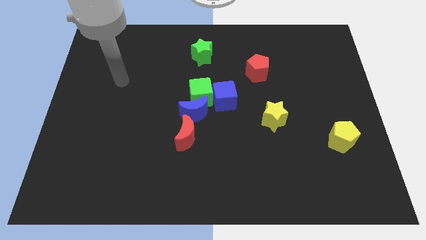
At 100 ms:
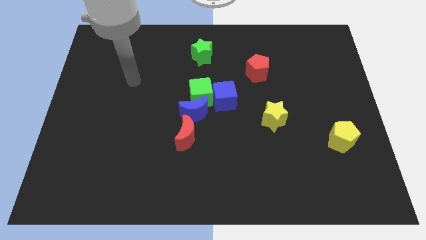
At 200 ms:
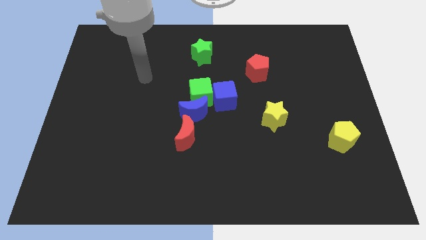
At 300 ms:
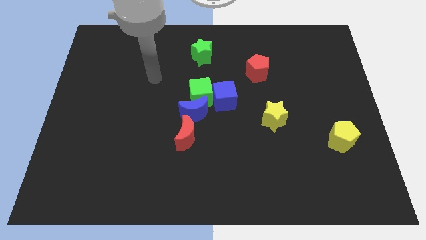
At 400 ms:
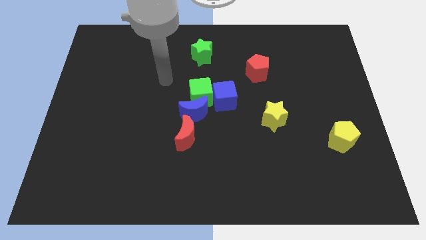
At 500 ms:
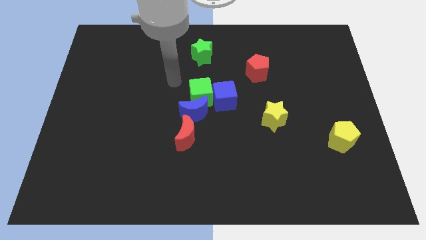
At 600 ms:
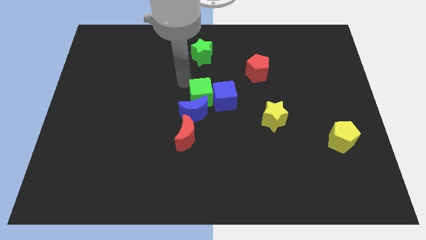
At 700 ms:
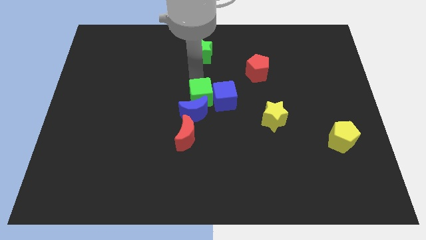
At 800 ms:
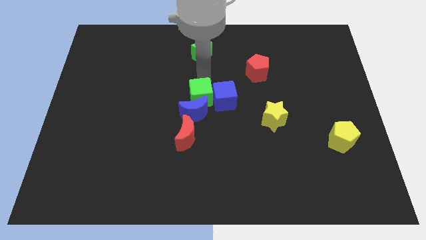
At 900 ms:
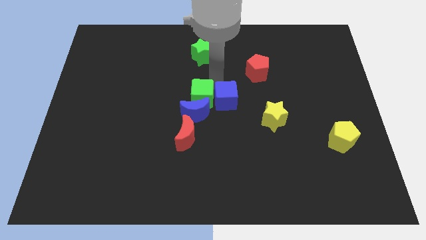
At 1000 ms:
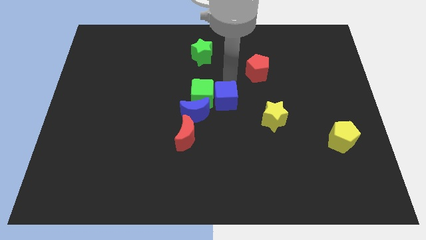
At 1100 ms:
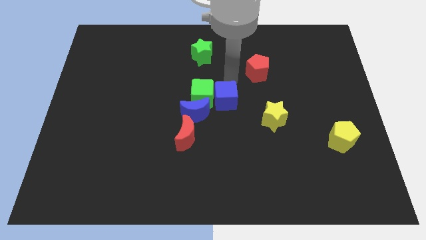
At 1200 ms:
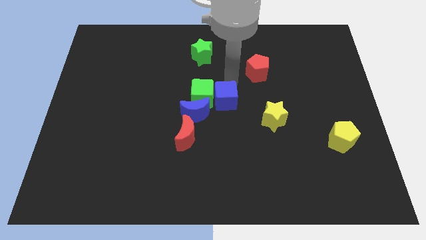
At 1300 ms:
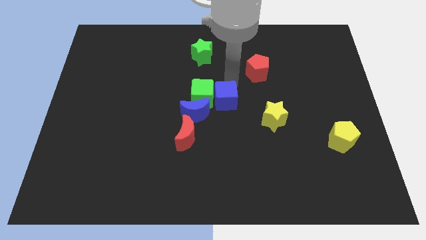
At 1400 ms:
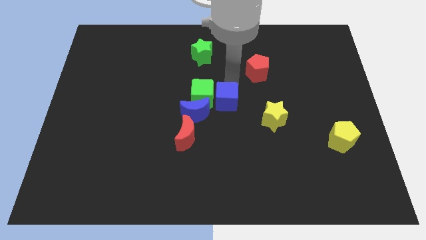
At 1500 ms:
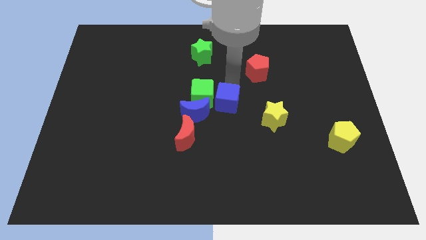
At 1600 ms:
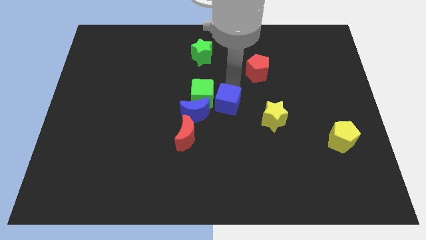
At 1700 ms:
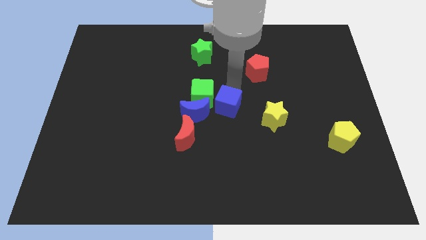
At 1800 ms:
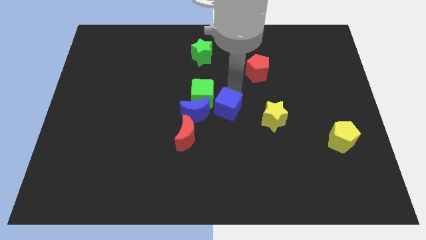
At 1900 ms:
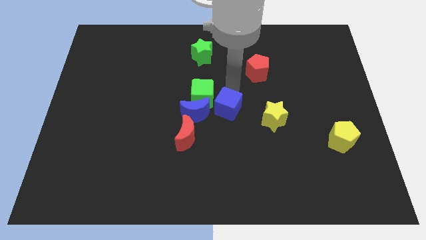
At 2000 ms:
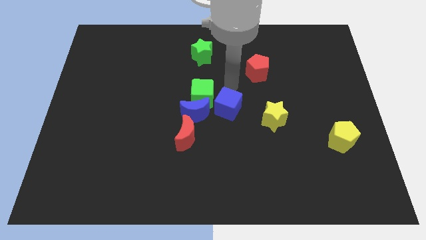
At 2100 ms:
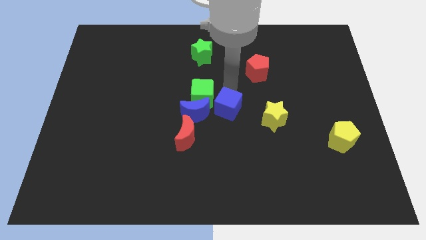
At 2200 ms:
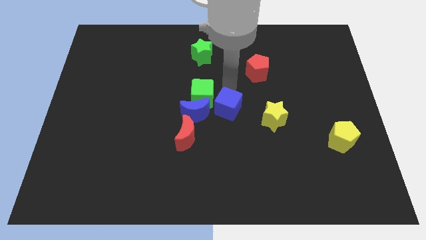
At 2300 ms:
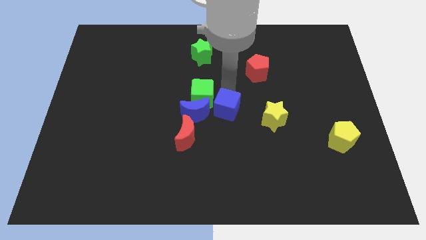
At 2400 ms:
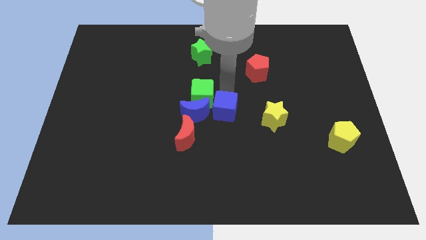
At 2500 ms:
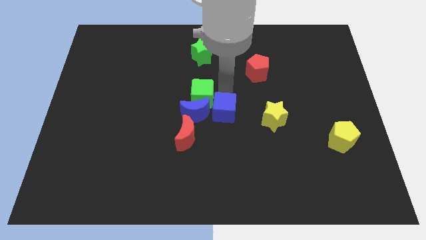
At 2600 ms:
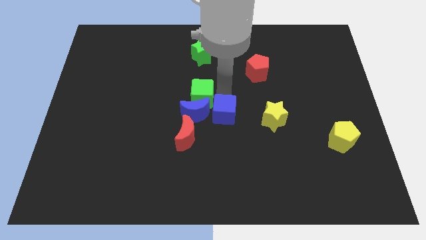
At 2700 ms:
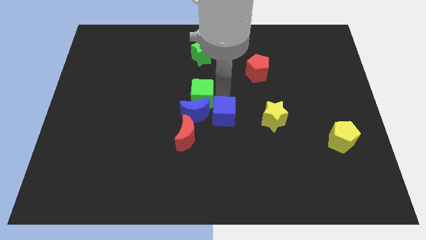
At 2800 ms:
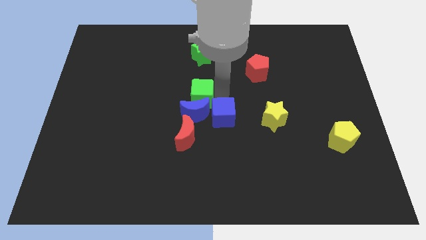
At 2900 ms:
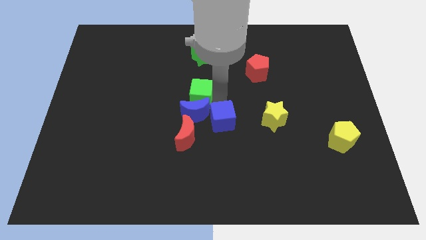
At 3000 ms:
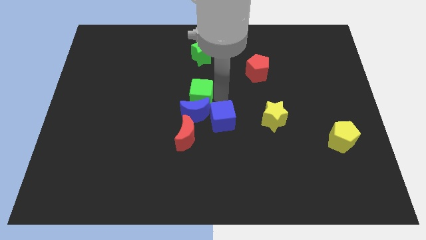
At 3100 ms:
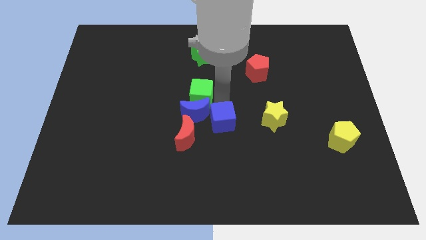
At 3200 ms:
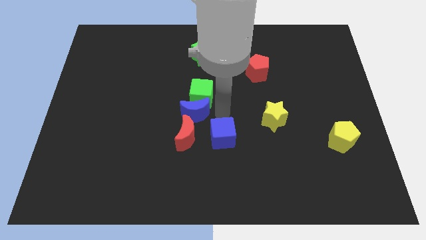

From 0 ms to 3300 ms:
slide the blue cube somewhat down

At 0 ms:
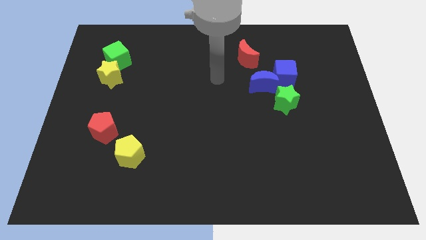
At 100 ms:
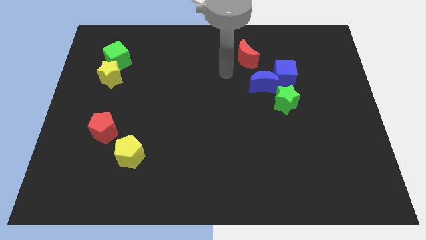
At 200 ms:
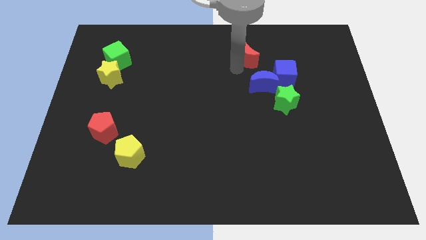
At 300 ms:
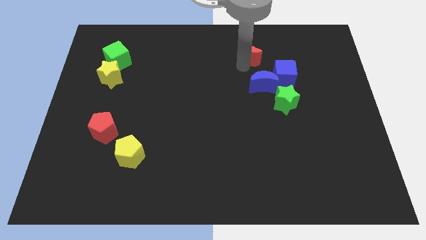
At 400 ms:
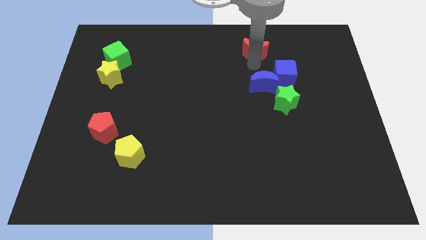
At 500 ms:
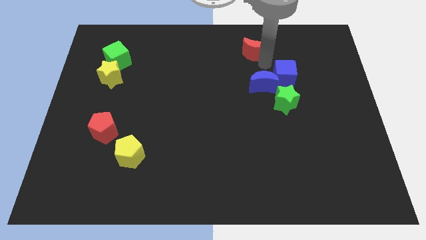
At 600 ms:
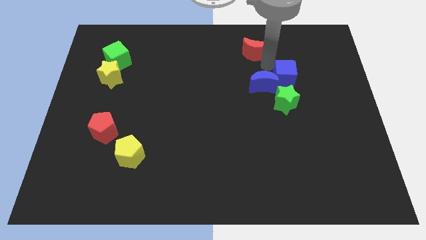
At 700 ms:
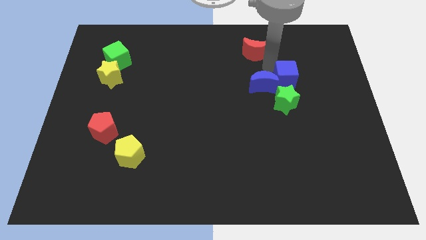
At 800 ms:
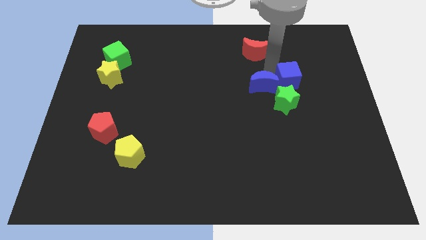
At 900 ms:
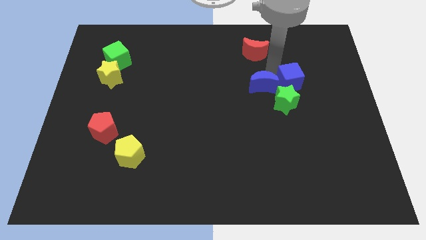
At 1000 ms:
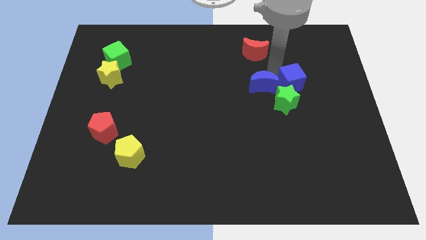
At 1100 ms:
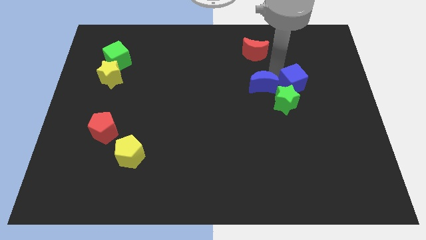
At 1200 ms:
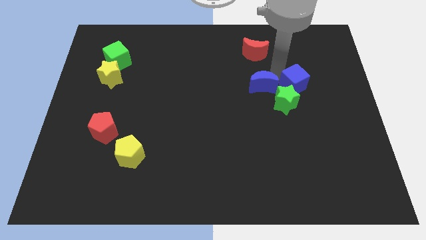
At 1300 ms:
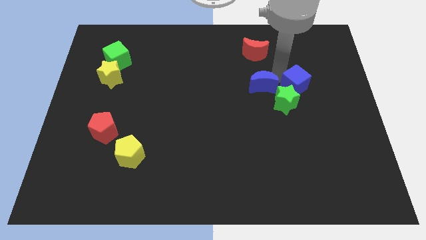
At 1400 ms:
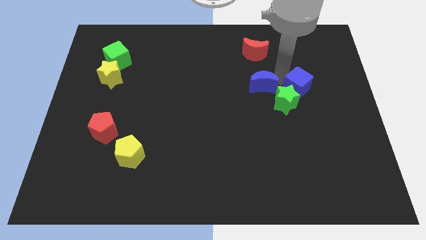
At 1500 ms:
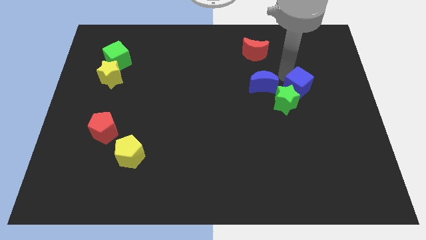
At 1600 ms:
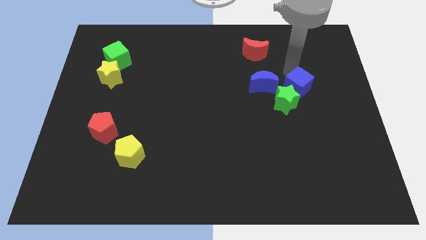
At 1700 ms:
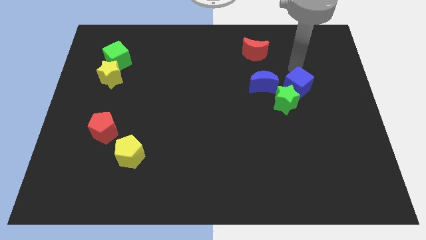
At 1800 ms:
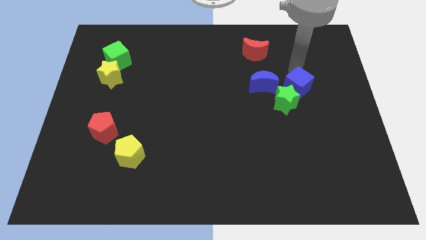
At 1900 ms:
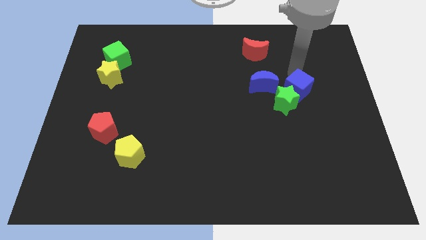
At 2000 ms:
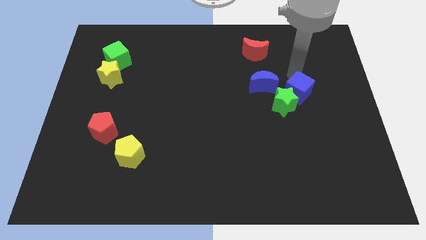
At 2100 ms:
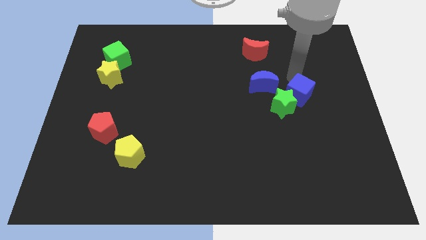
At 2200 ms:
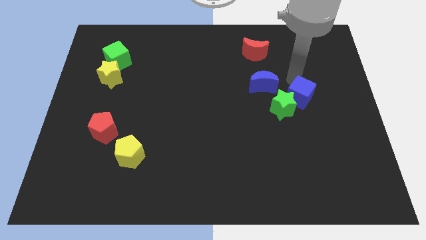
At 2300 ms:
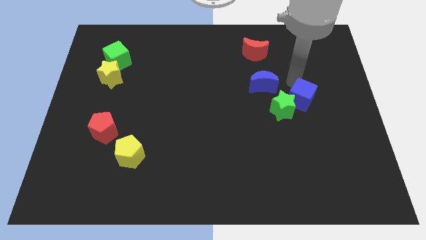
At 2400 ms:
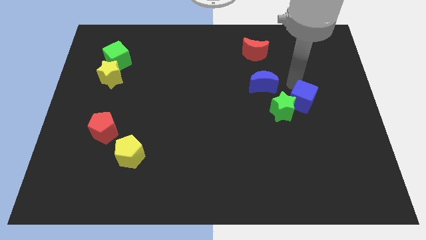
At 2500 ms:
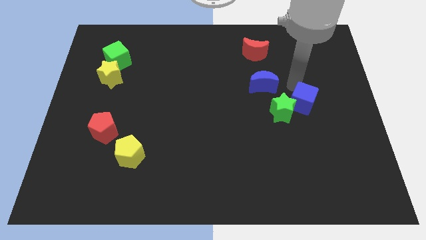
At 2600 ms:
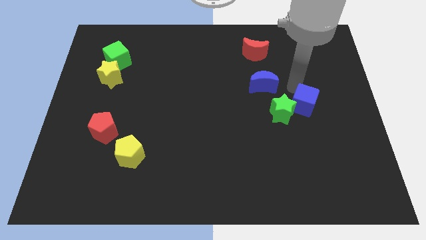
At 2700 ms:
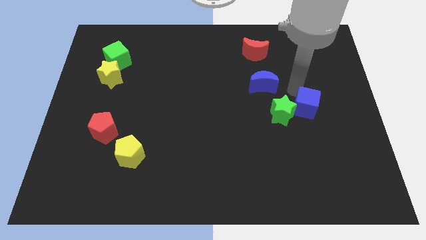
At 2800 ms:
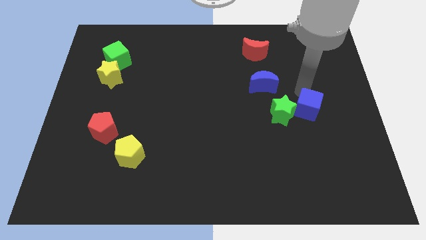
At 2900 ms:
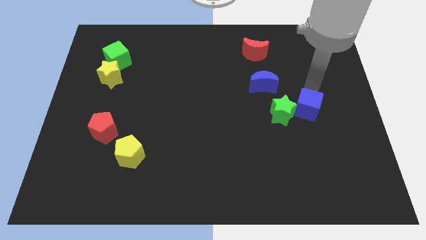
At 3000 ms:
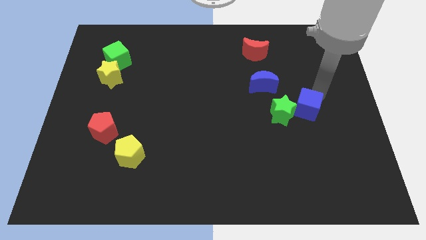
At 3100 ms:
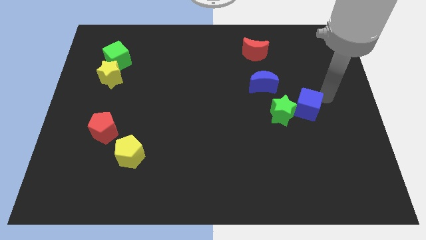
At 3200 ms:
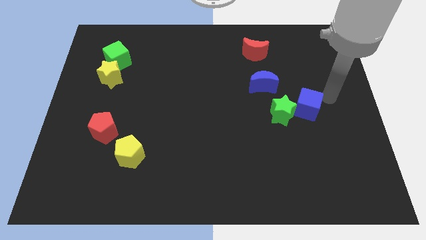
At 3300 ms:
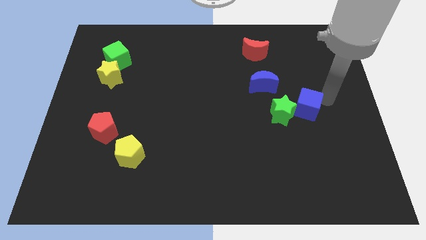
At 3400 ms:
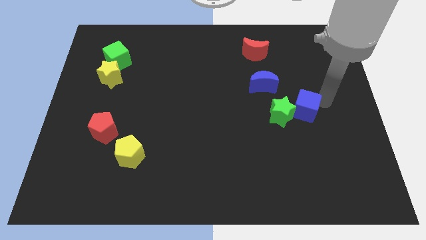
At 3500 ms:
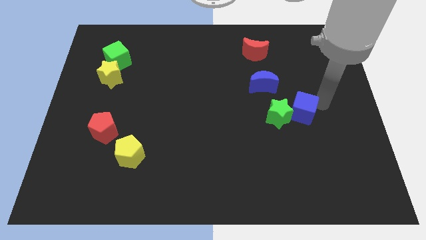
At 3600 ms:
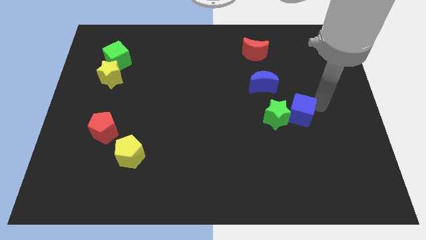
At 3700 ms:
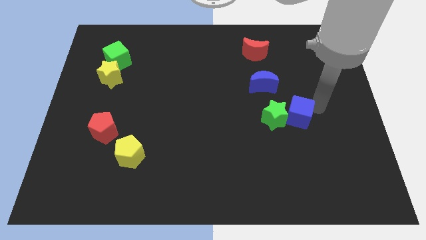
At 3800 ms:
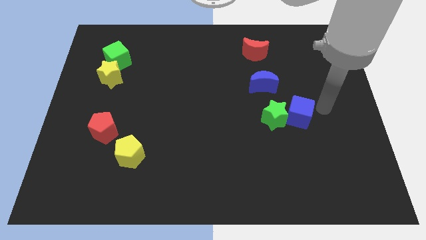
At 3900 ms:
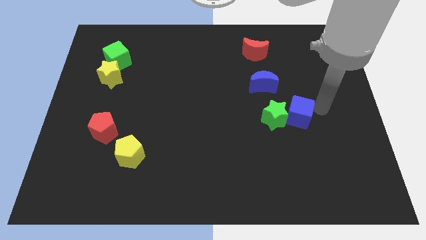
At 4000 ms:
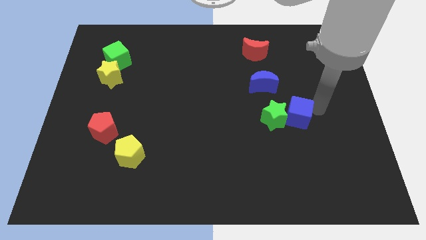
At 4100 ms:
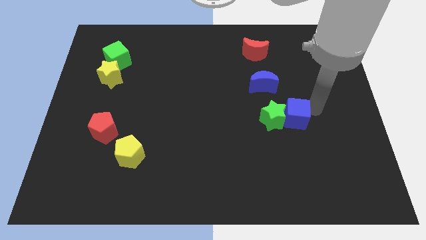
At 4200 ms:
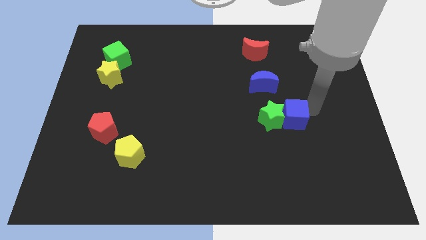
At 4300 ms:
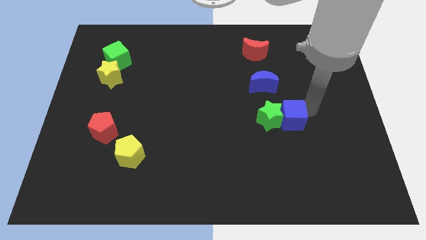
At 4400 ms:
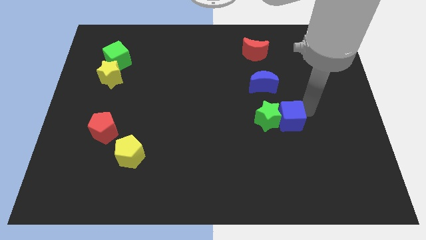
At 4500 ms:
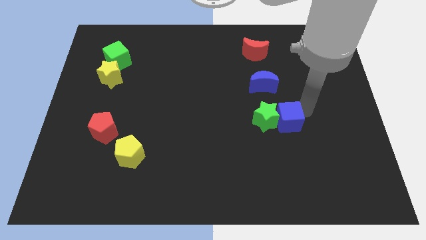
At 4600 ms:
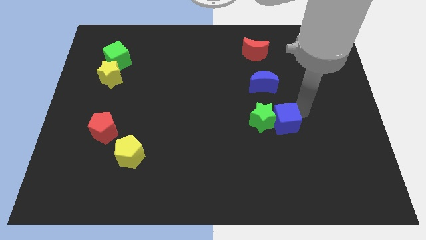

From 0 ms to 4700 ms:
slightly slide the blue cube down and then to the left
